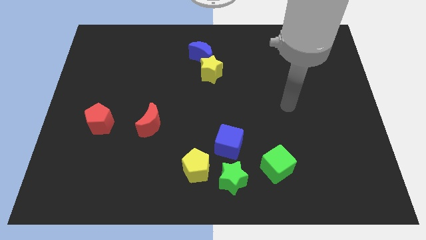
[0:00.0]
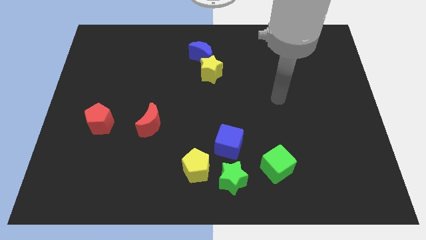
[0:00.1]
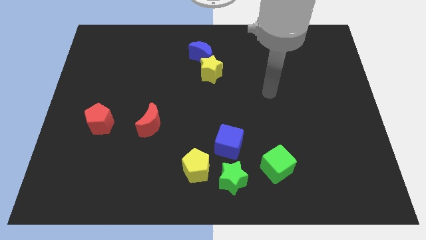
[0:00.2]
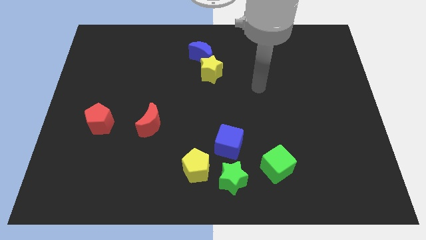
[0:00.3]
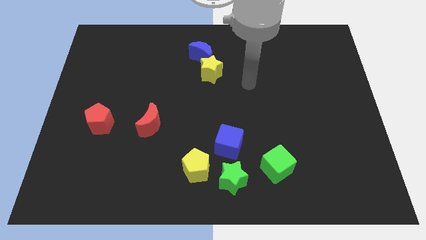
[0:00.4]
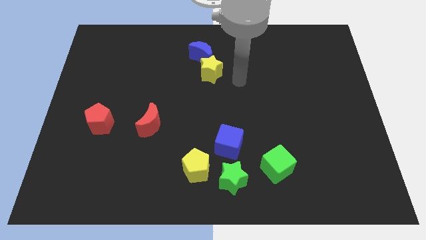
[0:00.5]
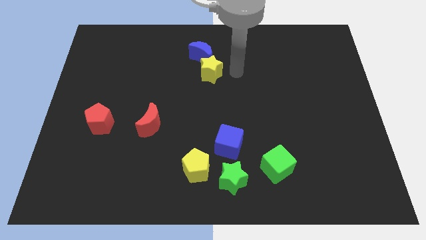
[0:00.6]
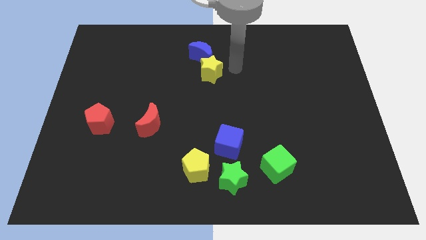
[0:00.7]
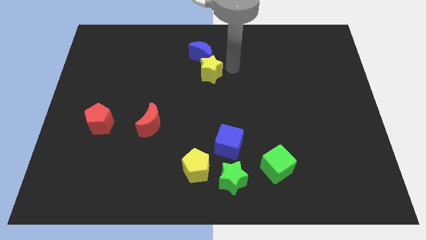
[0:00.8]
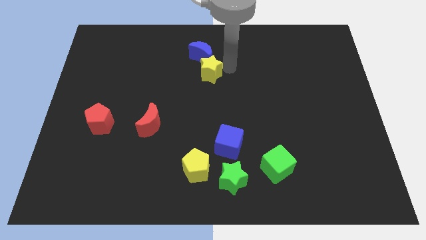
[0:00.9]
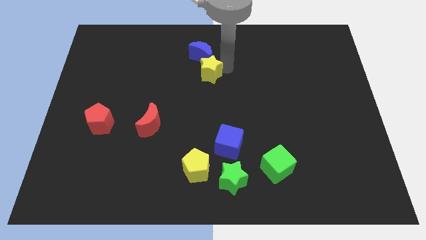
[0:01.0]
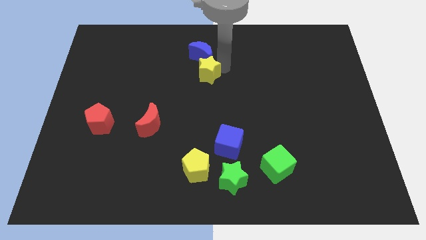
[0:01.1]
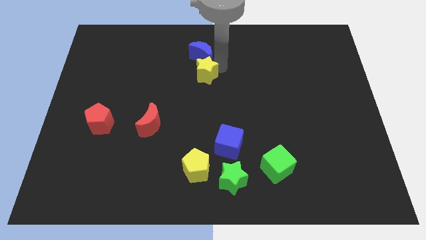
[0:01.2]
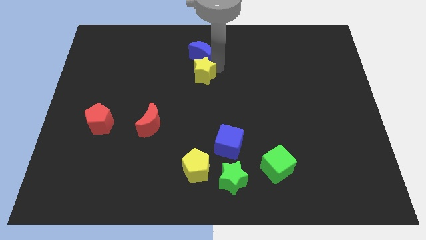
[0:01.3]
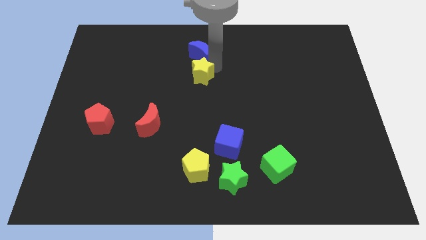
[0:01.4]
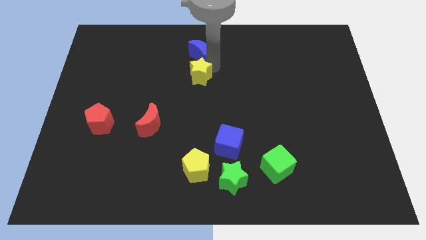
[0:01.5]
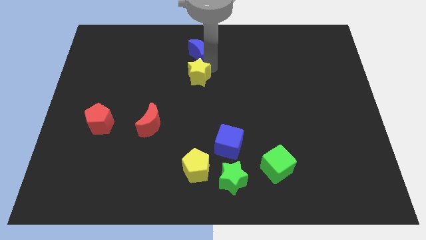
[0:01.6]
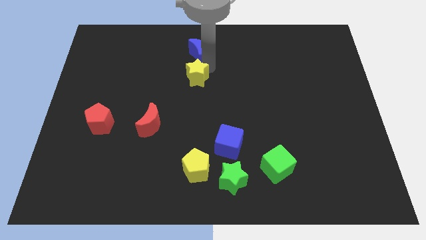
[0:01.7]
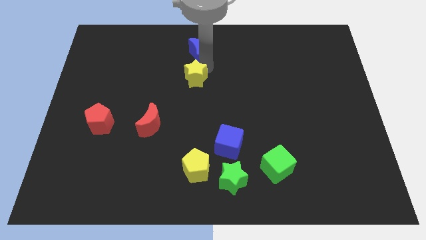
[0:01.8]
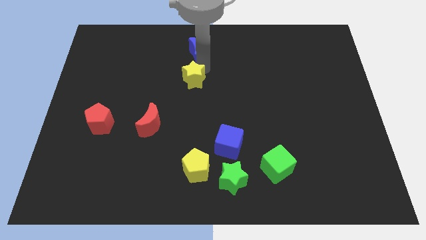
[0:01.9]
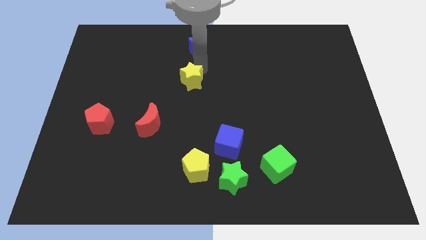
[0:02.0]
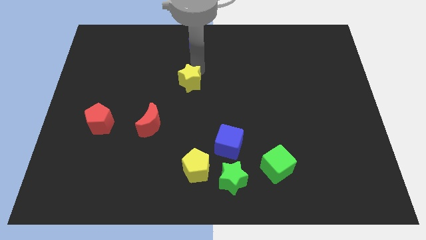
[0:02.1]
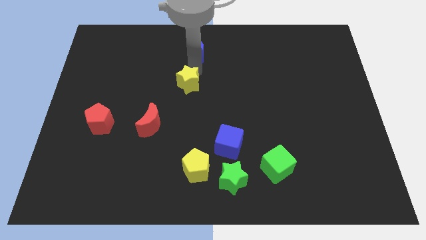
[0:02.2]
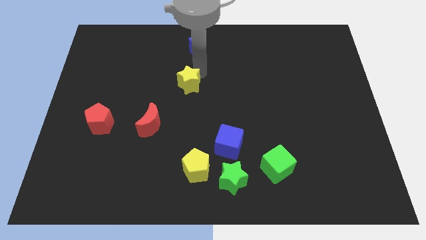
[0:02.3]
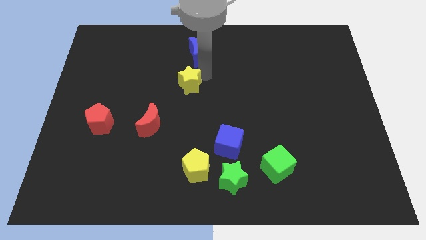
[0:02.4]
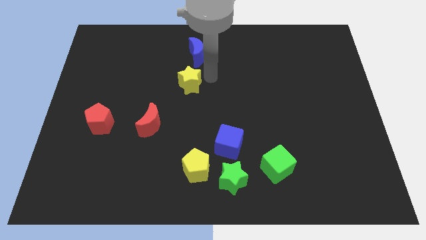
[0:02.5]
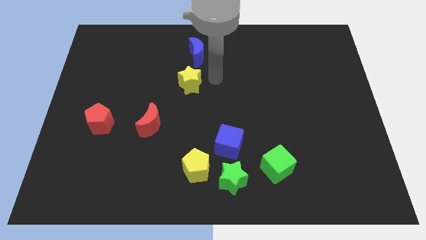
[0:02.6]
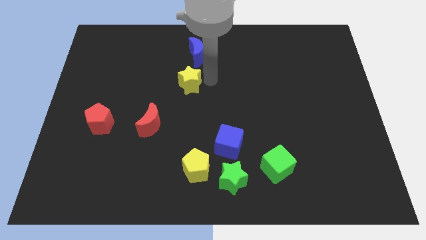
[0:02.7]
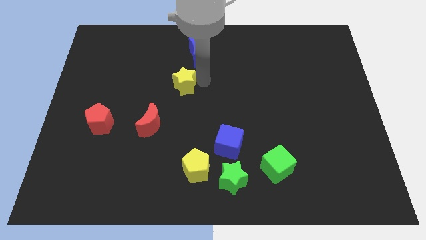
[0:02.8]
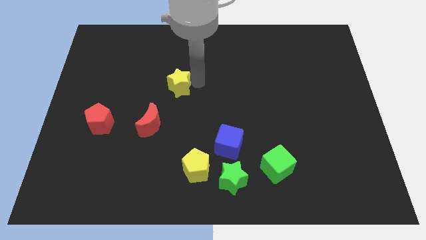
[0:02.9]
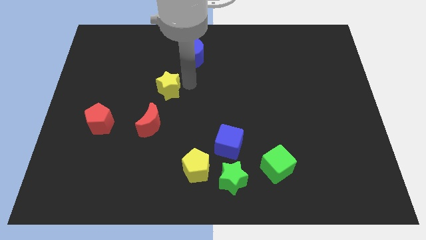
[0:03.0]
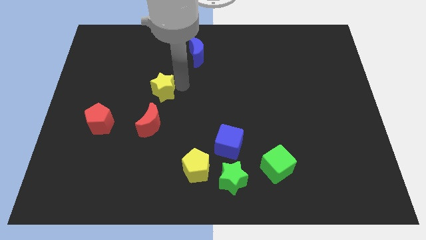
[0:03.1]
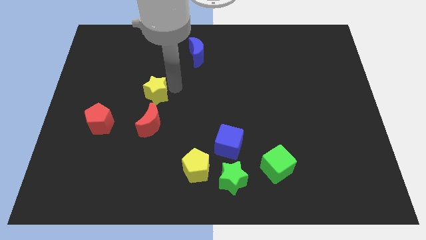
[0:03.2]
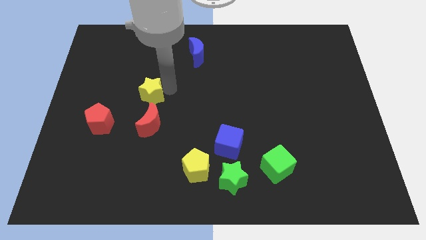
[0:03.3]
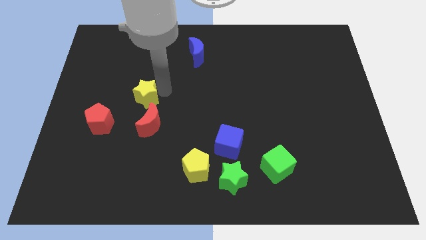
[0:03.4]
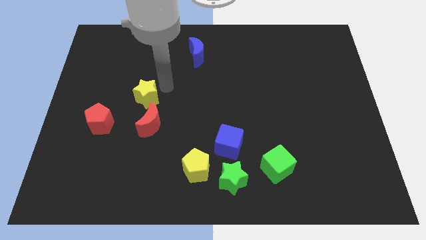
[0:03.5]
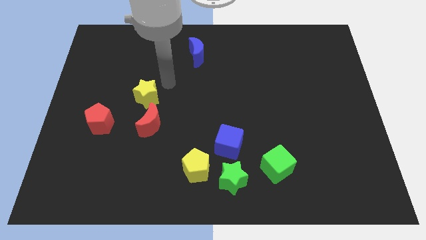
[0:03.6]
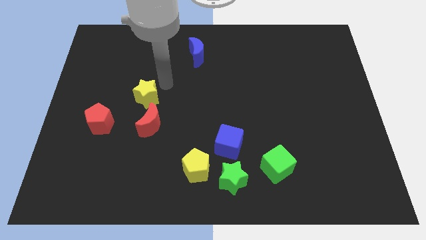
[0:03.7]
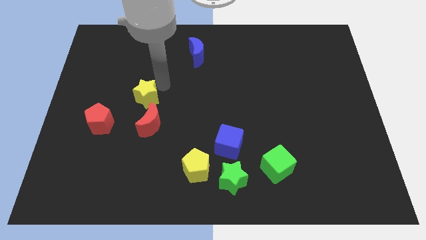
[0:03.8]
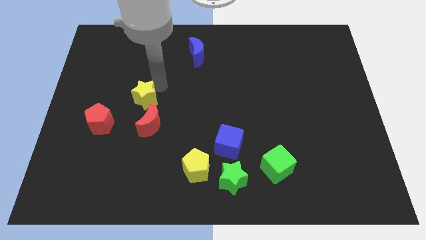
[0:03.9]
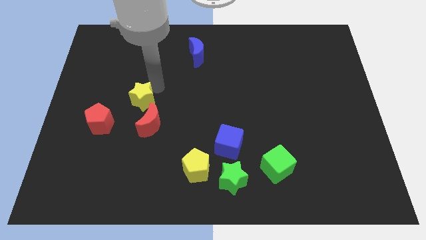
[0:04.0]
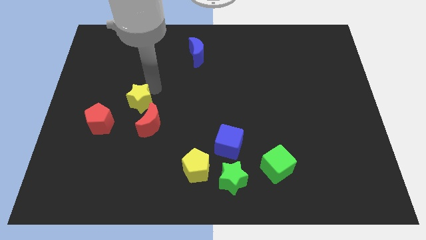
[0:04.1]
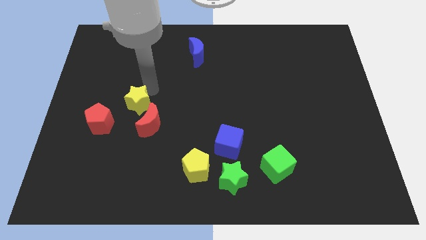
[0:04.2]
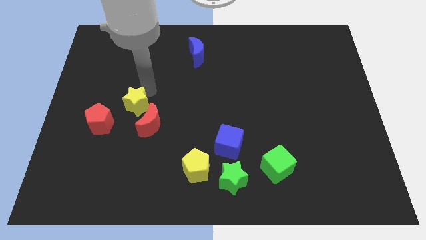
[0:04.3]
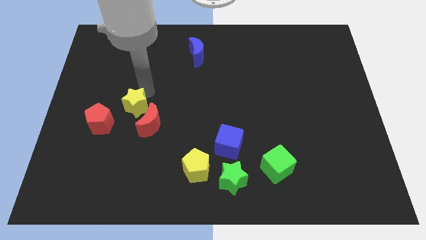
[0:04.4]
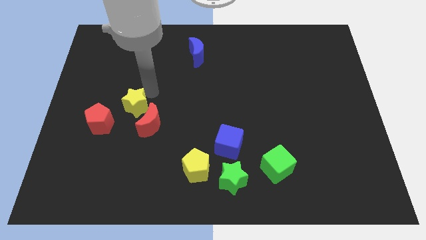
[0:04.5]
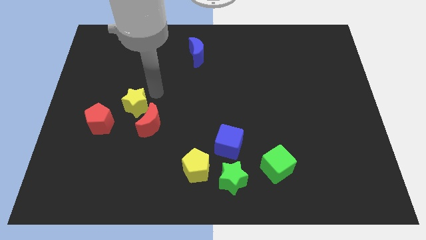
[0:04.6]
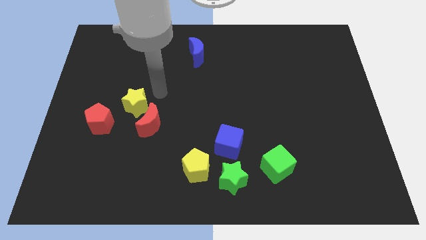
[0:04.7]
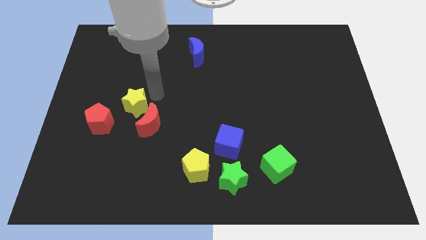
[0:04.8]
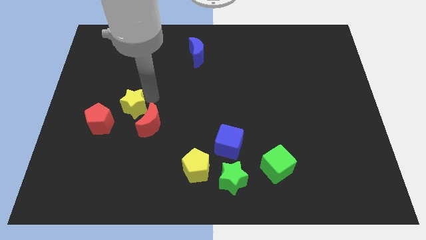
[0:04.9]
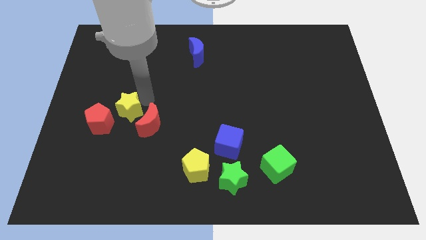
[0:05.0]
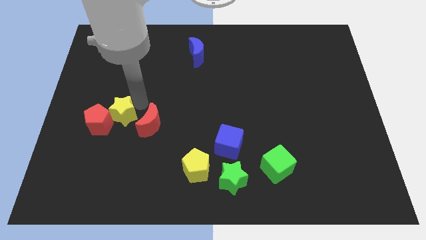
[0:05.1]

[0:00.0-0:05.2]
put the yellow star towards the red pentagon

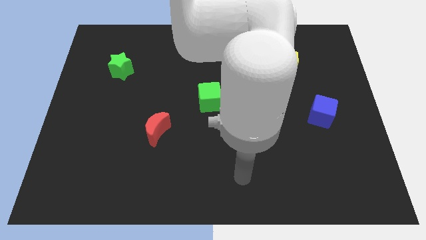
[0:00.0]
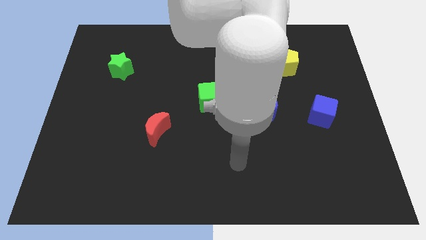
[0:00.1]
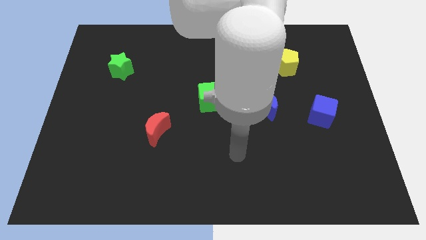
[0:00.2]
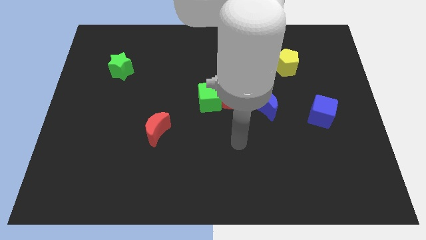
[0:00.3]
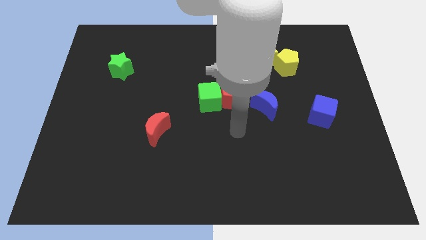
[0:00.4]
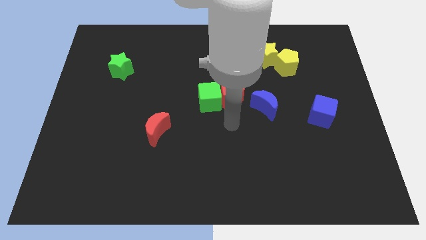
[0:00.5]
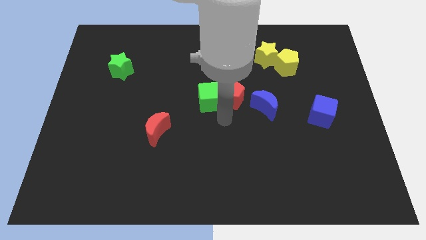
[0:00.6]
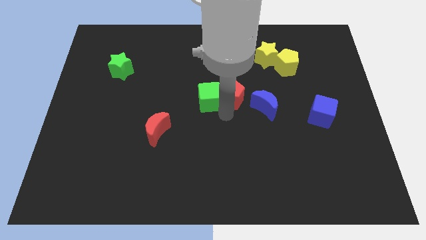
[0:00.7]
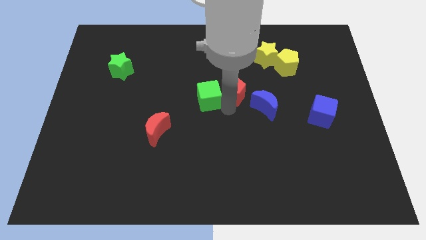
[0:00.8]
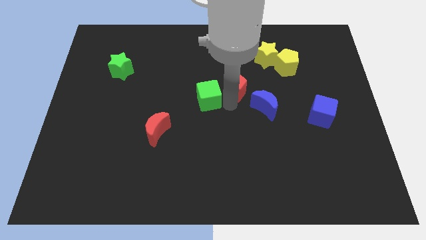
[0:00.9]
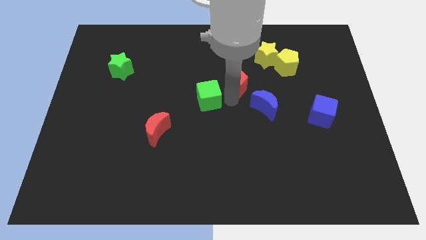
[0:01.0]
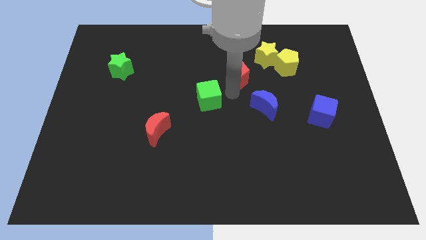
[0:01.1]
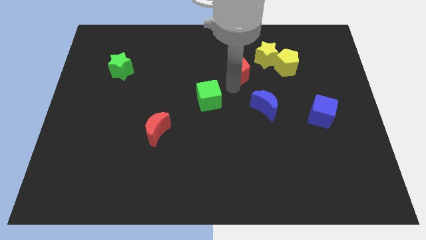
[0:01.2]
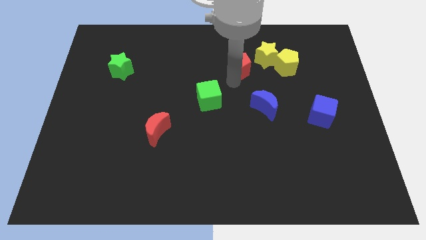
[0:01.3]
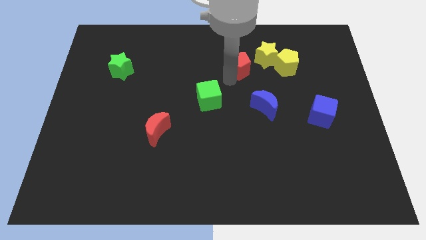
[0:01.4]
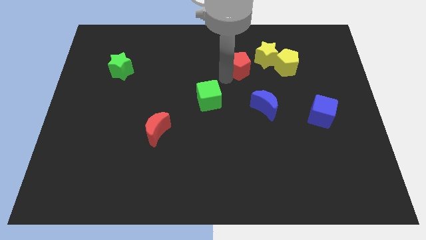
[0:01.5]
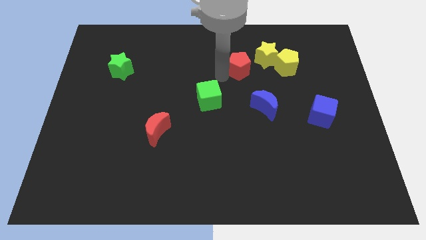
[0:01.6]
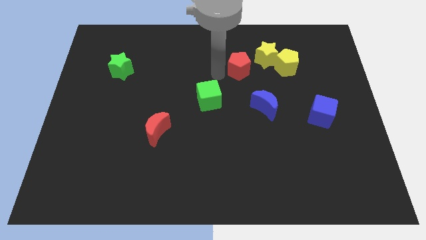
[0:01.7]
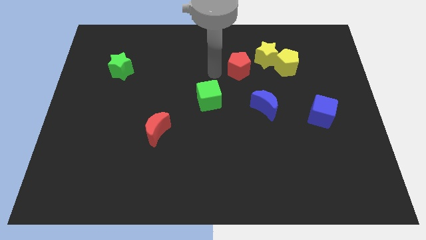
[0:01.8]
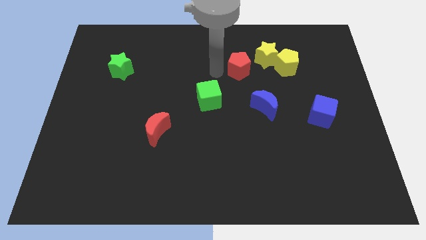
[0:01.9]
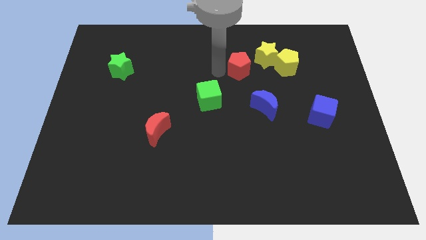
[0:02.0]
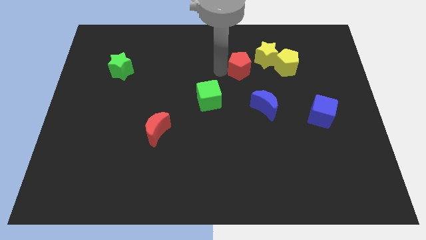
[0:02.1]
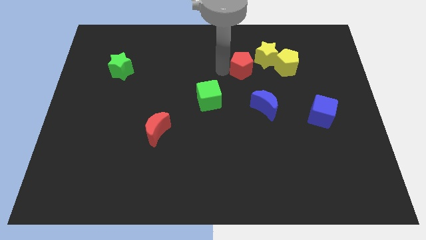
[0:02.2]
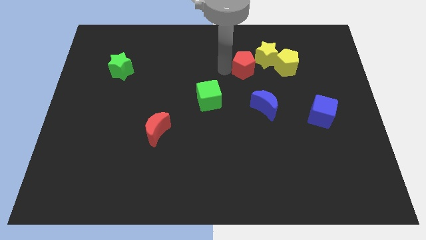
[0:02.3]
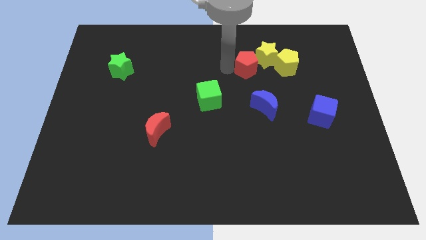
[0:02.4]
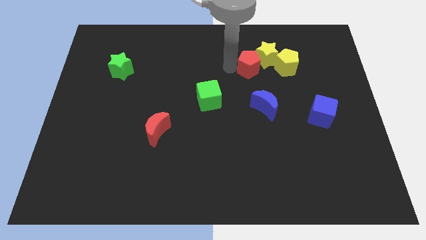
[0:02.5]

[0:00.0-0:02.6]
move the red pentagon close to the yellow star
